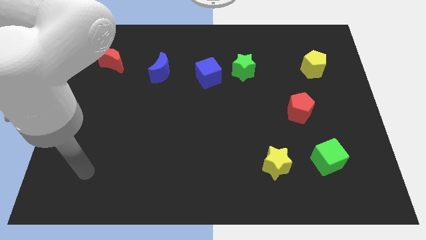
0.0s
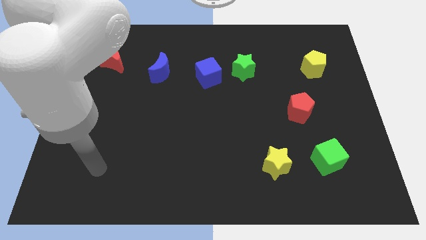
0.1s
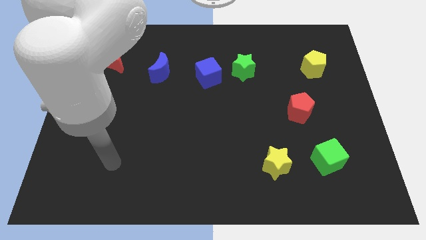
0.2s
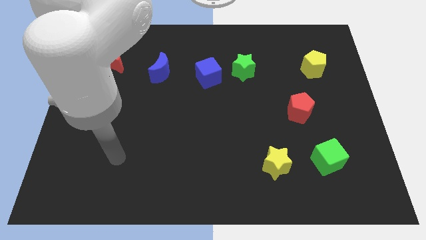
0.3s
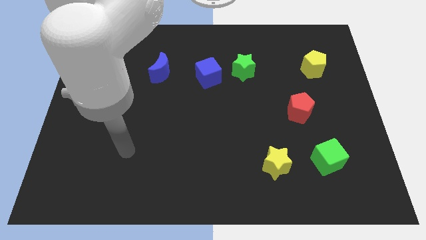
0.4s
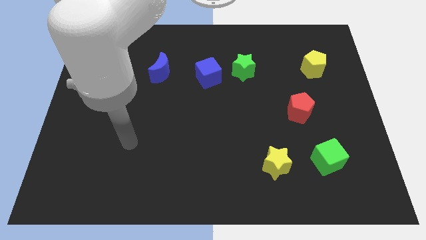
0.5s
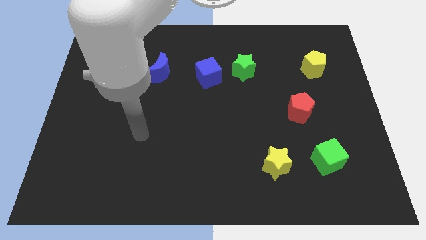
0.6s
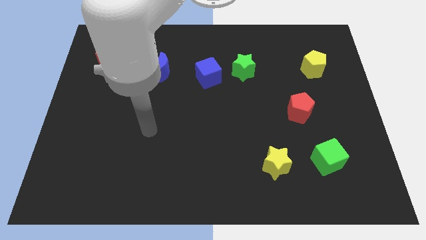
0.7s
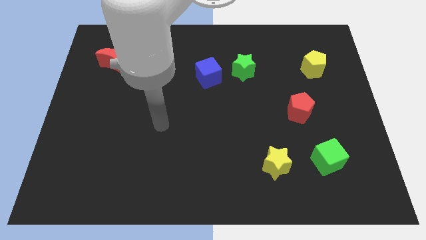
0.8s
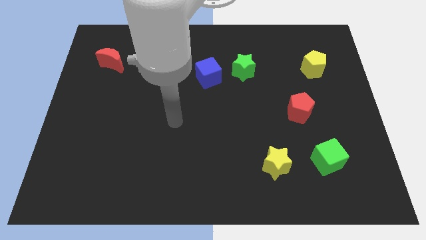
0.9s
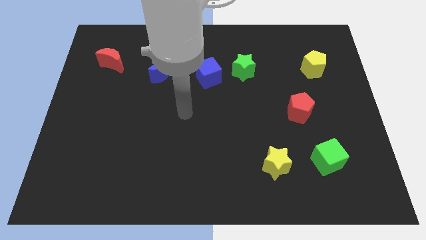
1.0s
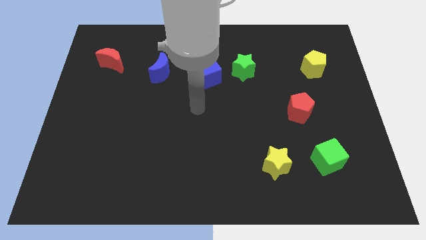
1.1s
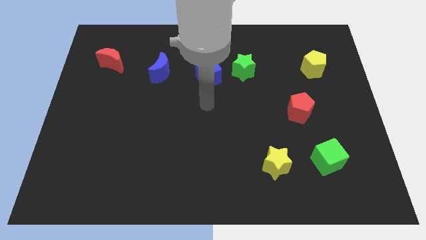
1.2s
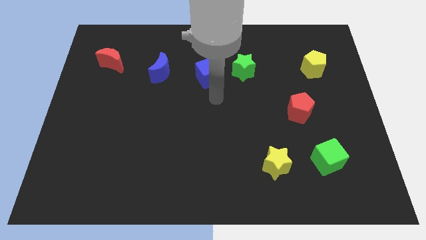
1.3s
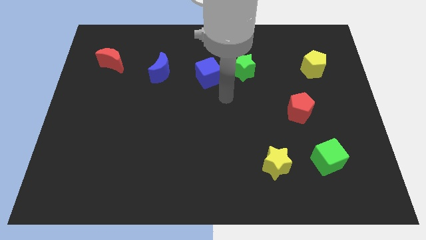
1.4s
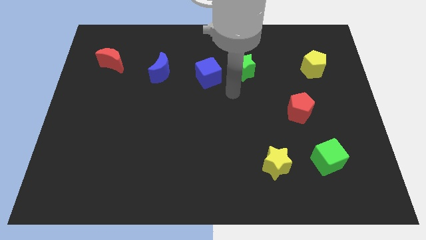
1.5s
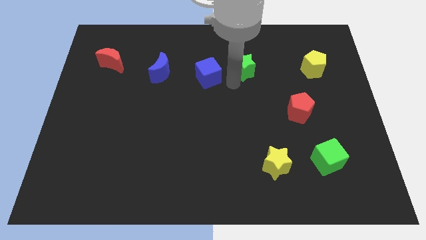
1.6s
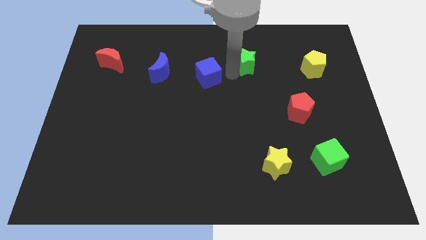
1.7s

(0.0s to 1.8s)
separate the blue cube from the green star

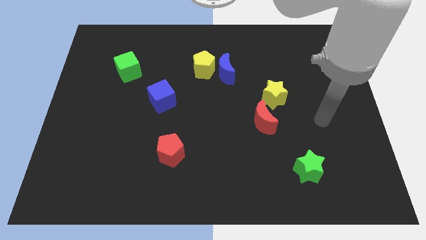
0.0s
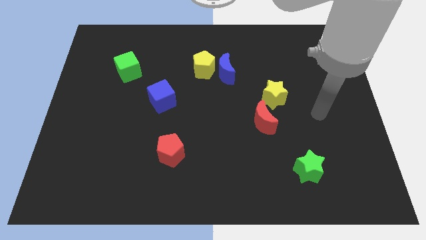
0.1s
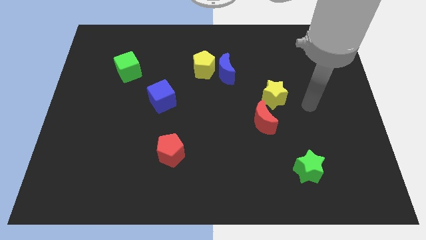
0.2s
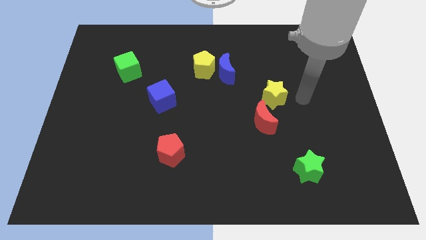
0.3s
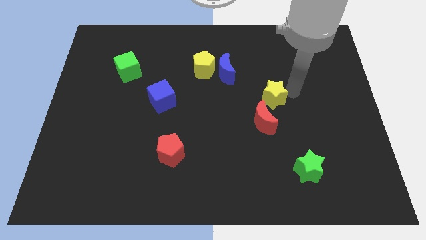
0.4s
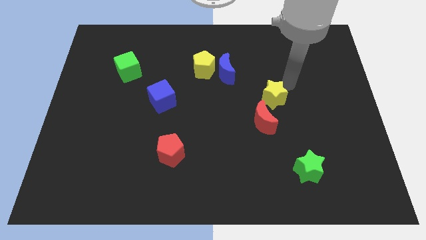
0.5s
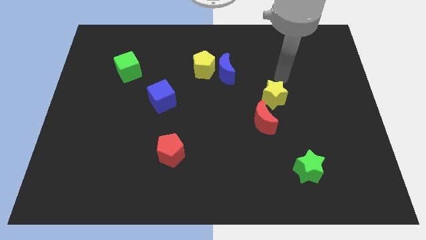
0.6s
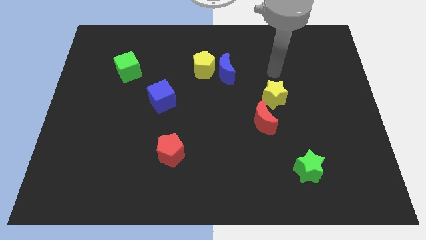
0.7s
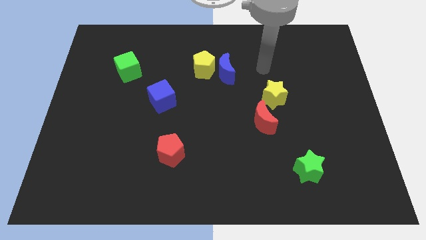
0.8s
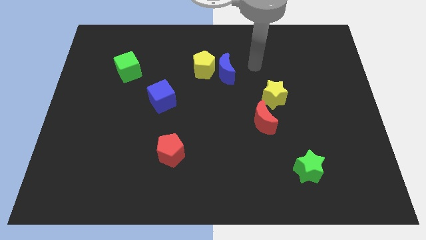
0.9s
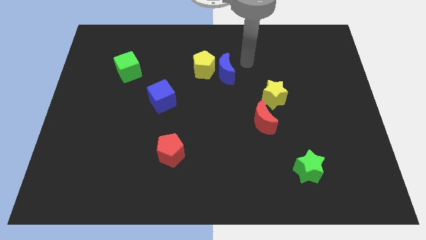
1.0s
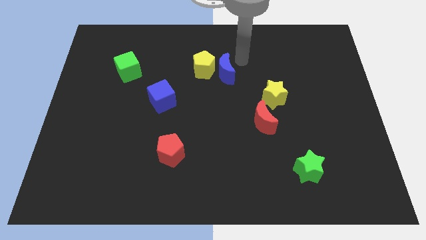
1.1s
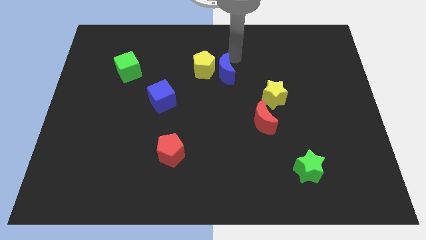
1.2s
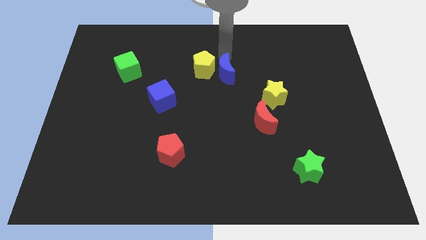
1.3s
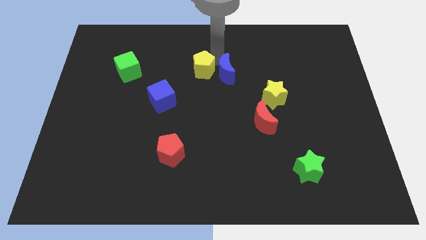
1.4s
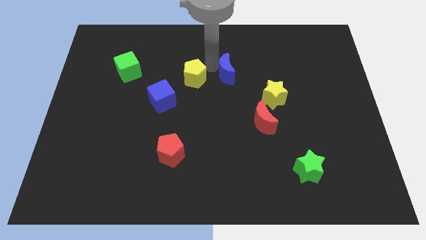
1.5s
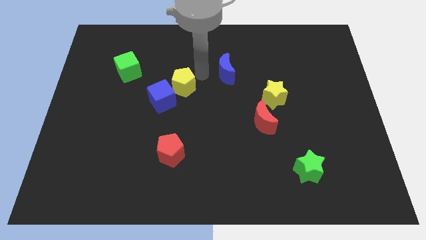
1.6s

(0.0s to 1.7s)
move the blue moon away from the yellow pentagon

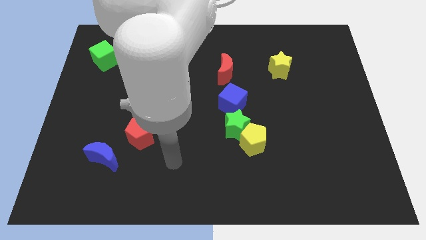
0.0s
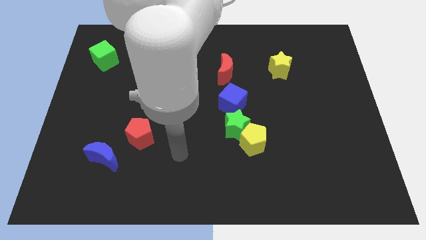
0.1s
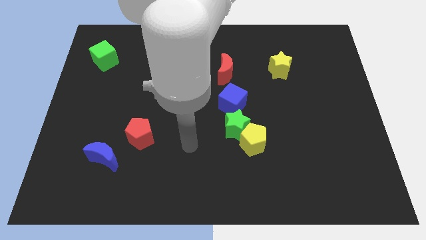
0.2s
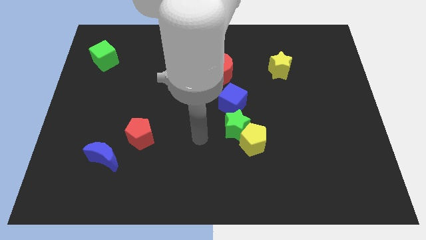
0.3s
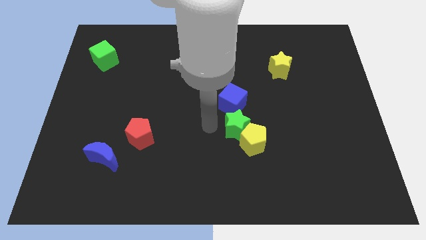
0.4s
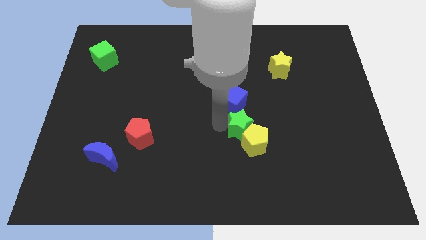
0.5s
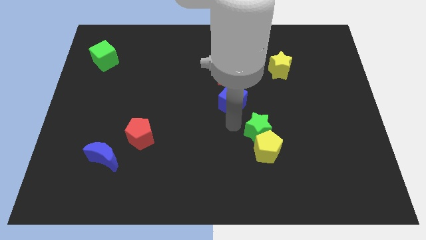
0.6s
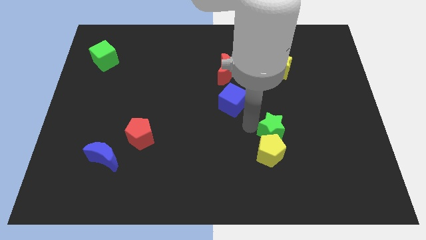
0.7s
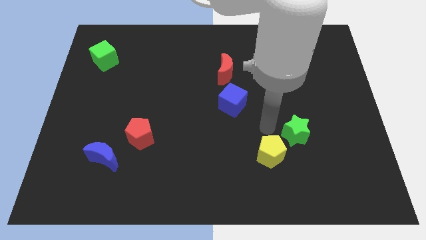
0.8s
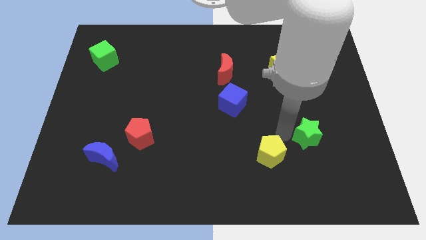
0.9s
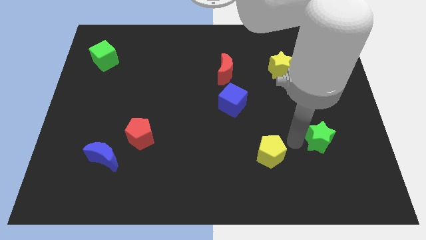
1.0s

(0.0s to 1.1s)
pull the yellow pentagon apart from the green star

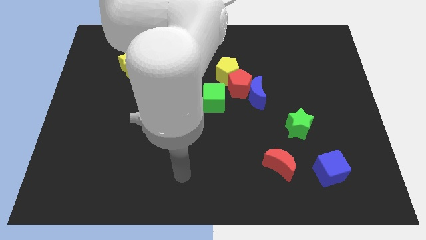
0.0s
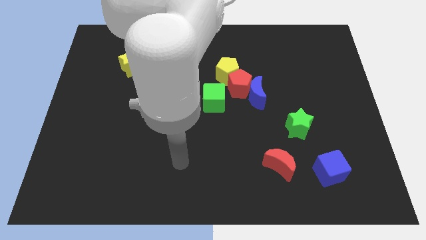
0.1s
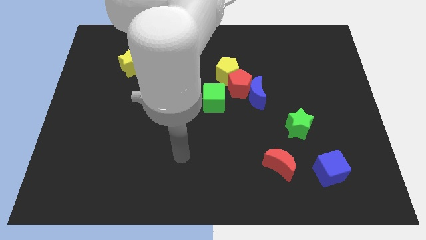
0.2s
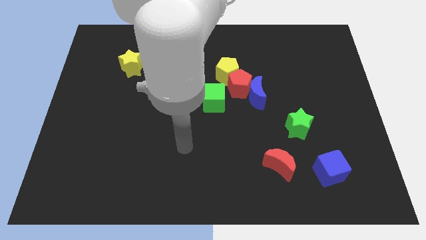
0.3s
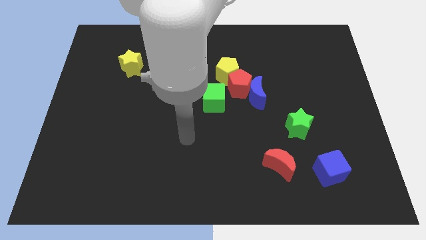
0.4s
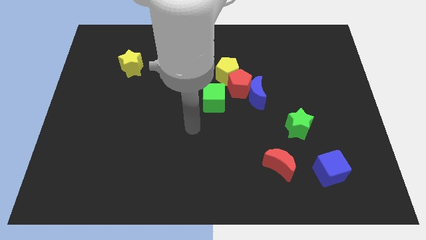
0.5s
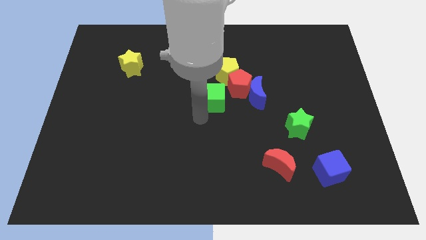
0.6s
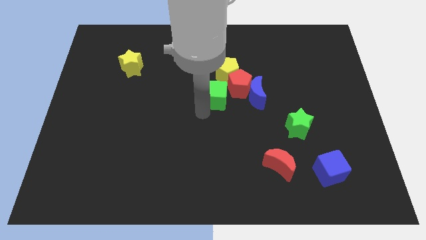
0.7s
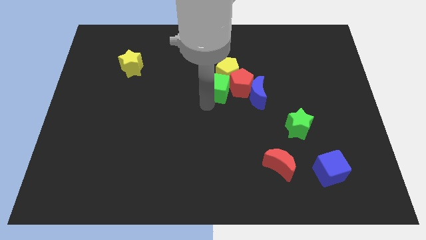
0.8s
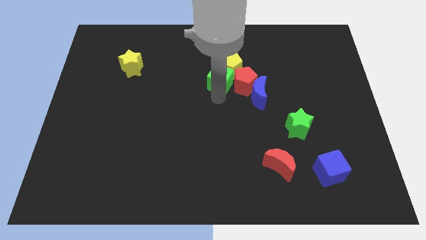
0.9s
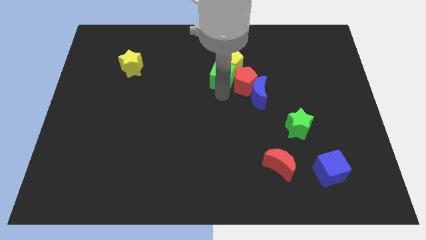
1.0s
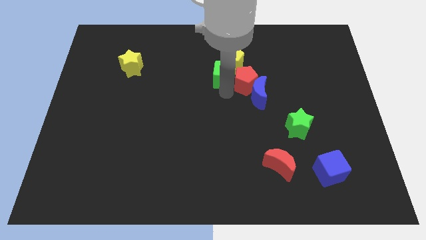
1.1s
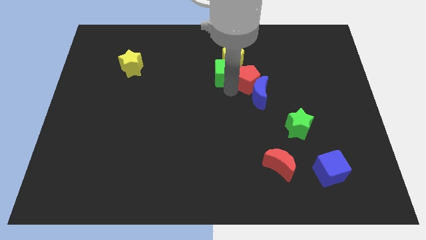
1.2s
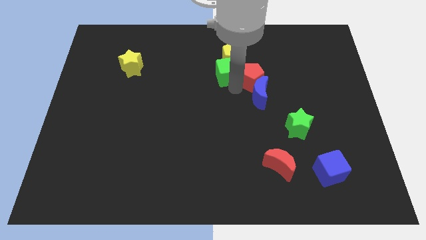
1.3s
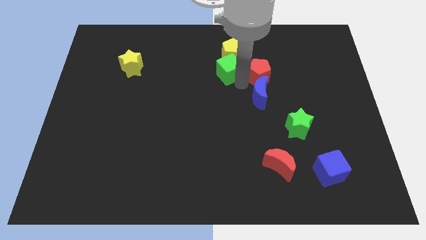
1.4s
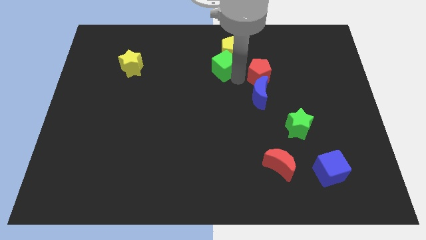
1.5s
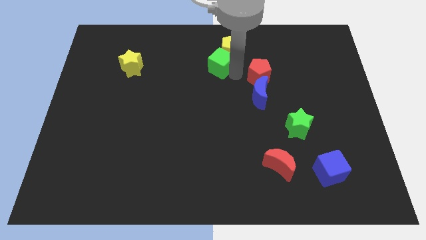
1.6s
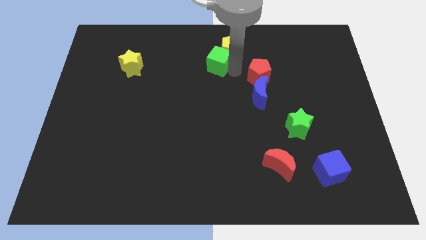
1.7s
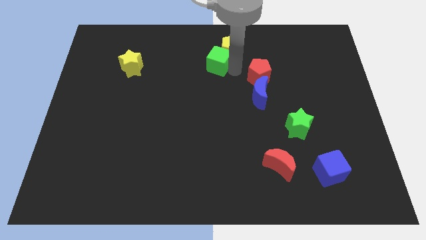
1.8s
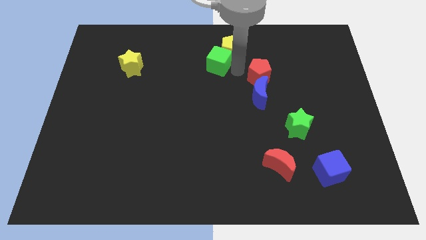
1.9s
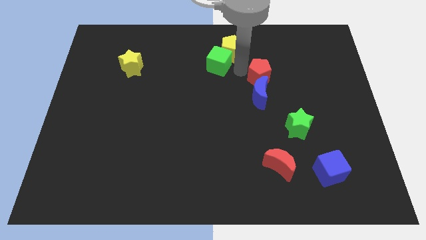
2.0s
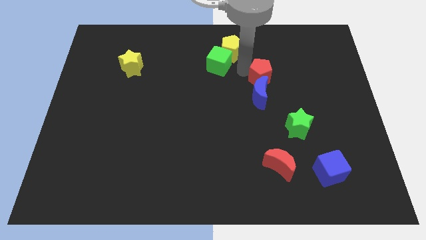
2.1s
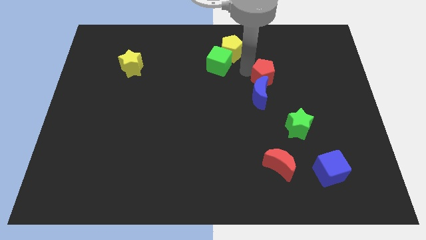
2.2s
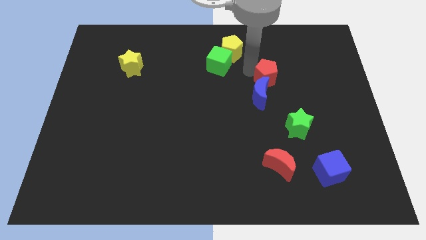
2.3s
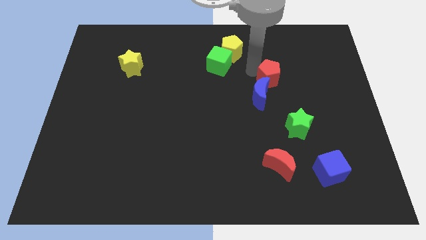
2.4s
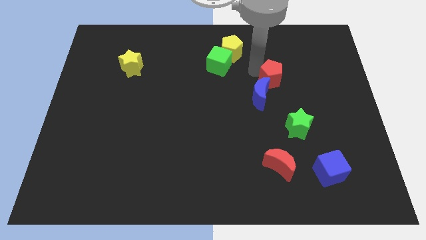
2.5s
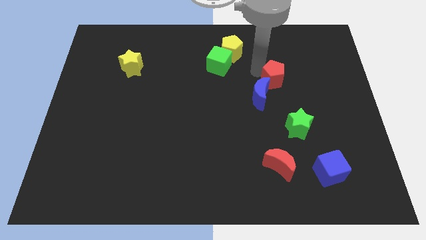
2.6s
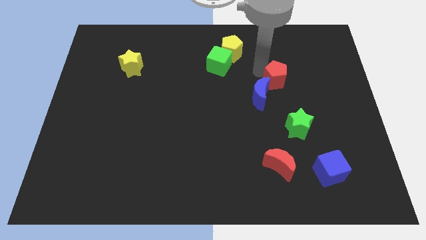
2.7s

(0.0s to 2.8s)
pull the red pentagon apart from the blue moon, yellow pentagon, and green cube

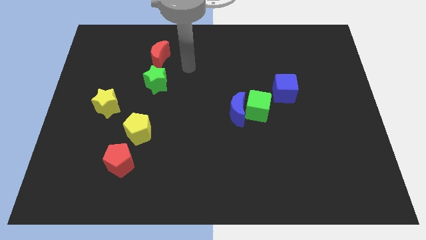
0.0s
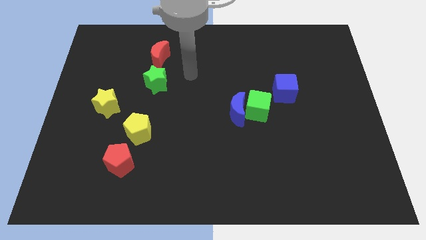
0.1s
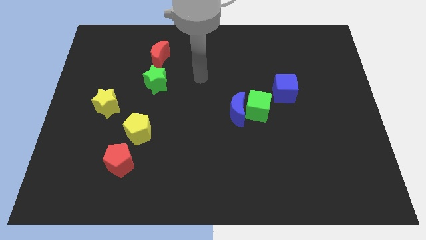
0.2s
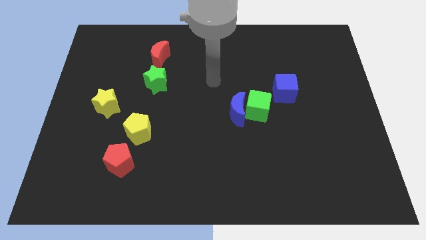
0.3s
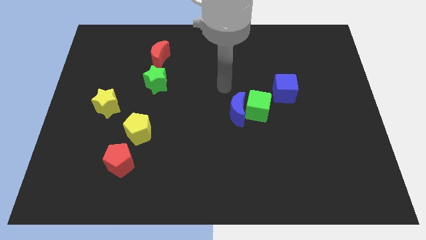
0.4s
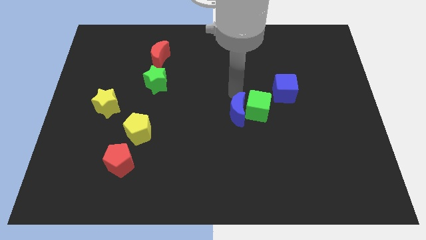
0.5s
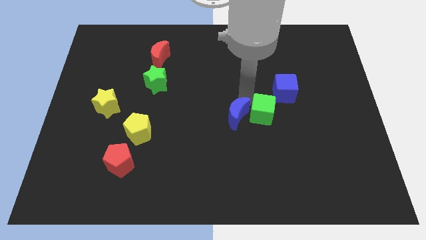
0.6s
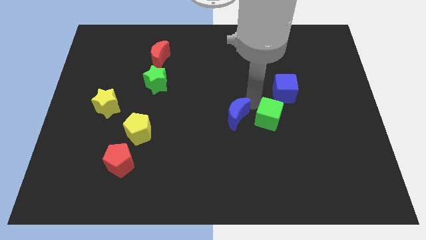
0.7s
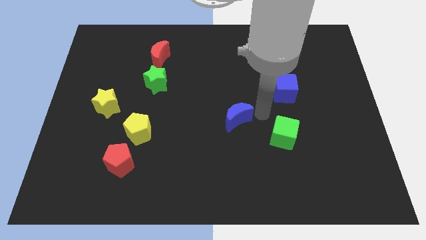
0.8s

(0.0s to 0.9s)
separate the blue moon from the green cube

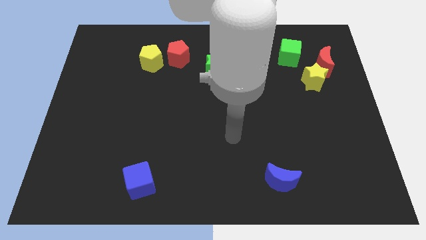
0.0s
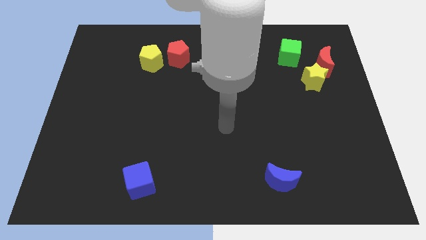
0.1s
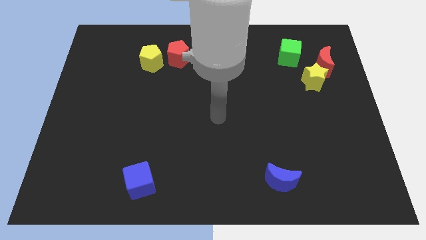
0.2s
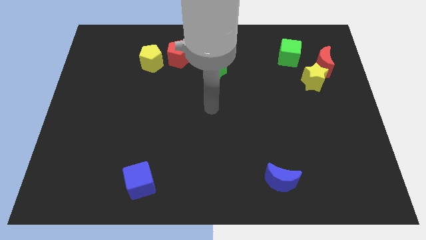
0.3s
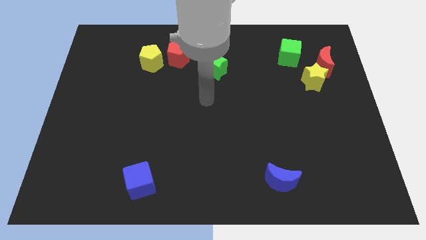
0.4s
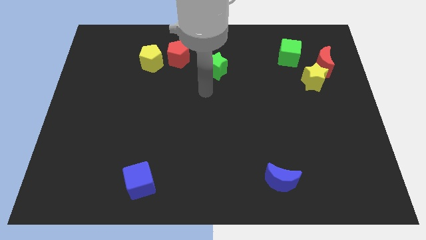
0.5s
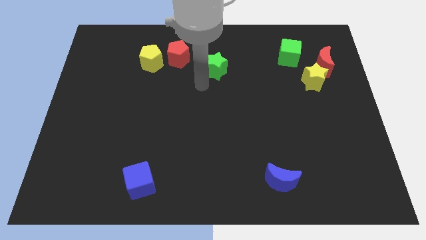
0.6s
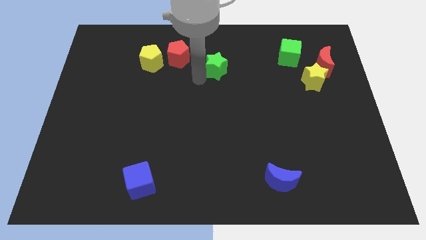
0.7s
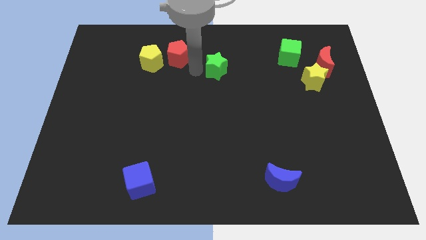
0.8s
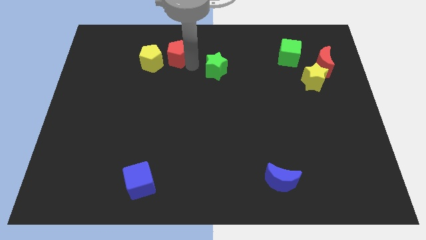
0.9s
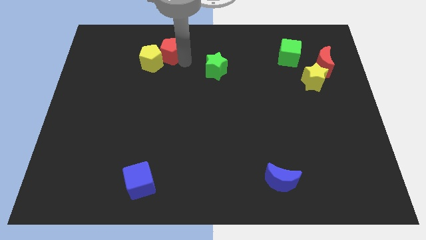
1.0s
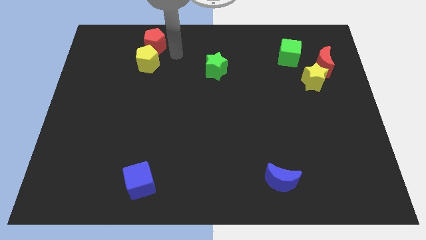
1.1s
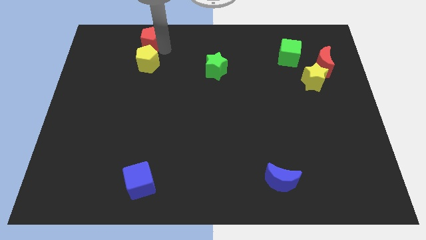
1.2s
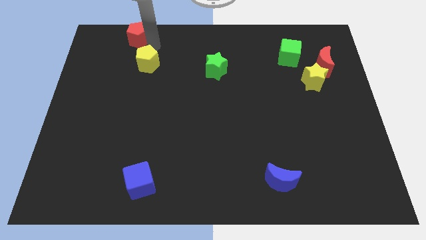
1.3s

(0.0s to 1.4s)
pull the yellow pentagon apart from the red pentagon
